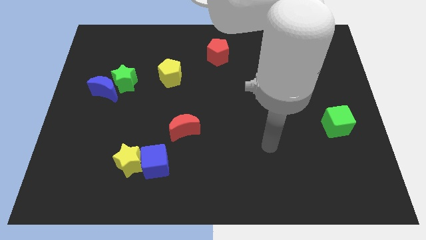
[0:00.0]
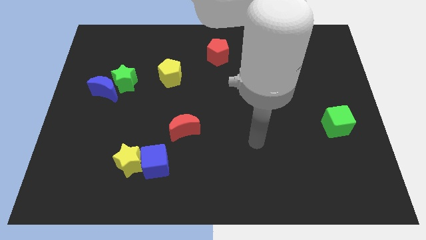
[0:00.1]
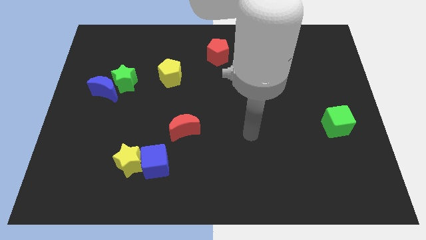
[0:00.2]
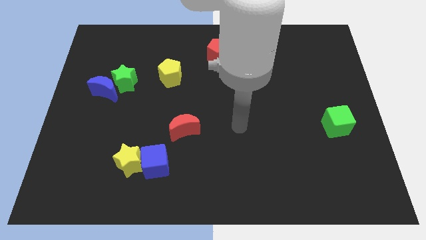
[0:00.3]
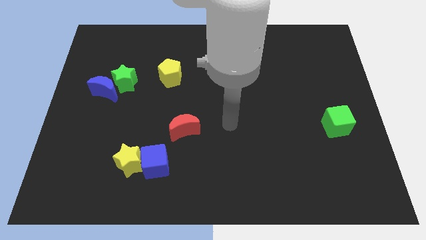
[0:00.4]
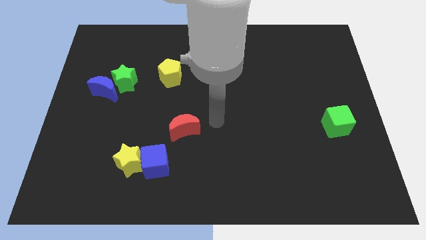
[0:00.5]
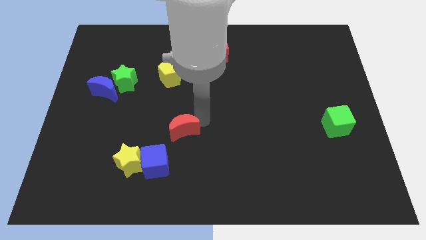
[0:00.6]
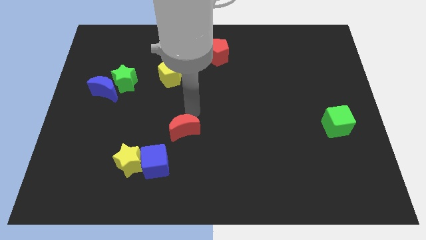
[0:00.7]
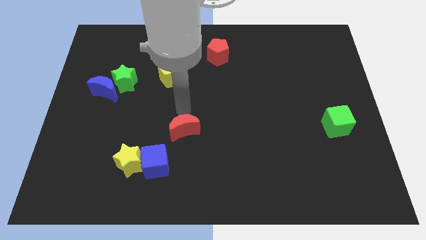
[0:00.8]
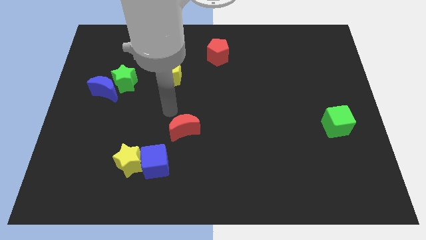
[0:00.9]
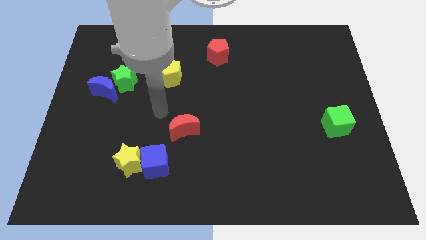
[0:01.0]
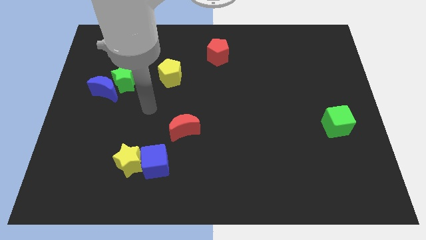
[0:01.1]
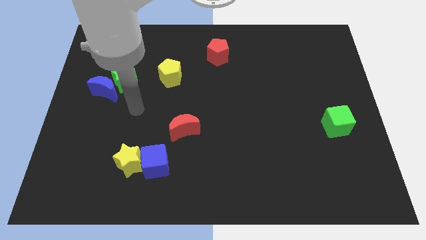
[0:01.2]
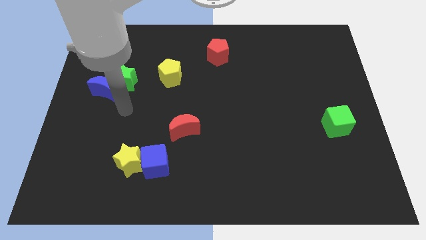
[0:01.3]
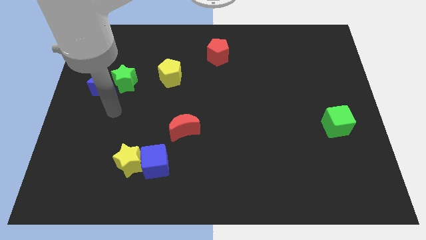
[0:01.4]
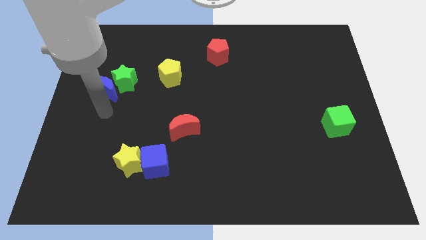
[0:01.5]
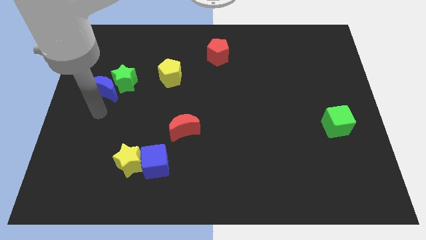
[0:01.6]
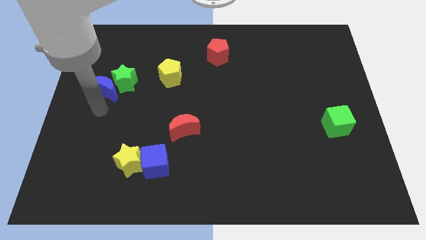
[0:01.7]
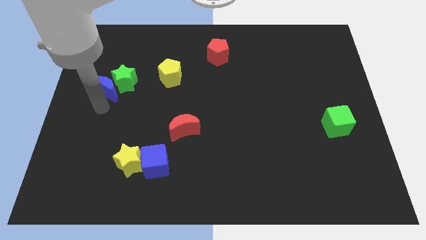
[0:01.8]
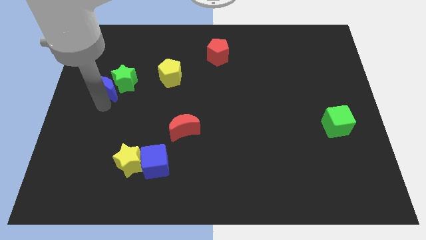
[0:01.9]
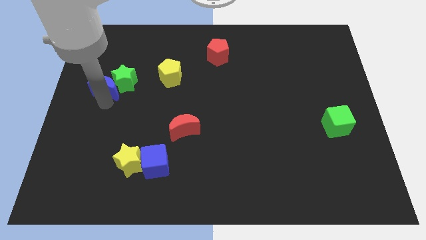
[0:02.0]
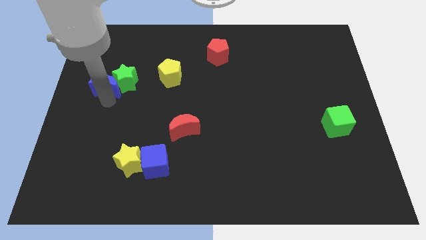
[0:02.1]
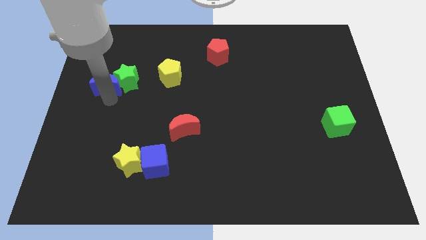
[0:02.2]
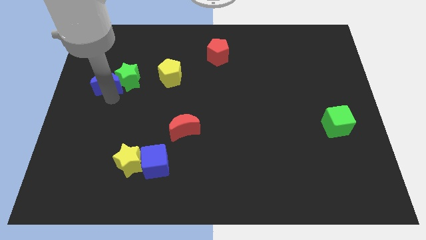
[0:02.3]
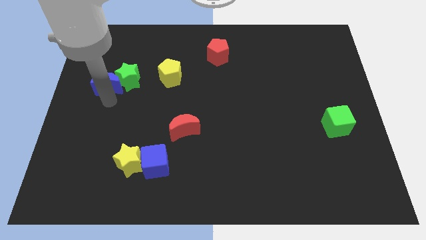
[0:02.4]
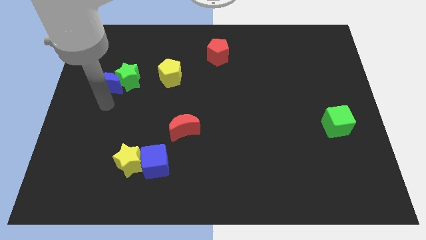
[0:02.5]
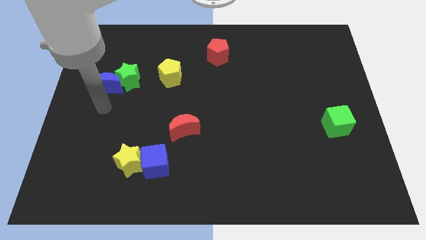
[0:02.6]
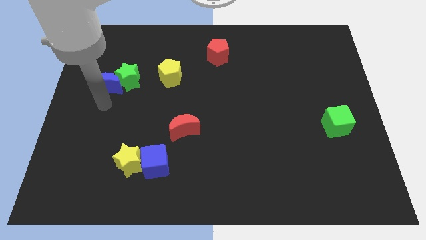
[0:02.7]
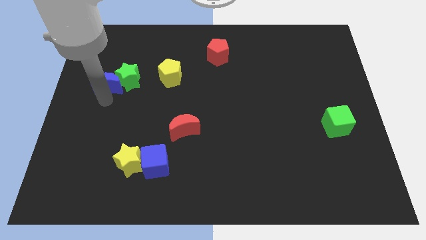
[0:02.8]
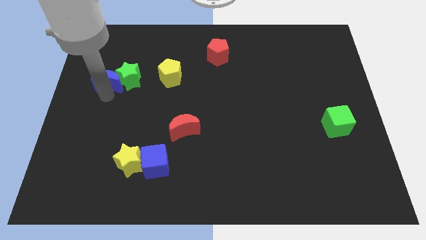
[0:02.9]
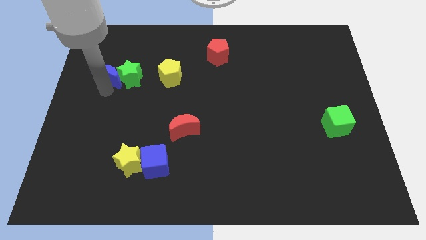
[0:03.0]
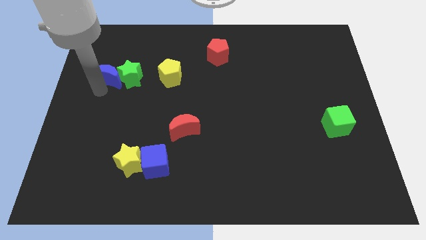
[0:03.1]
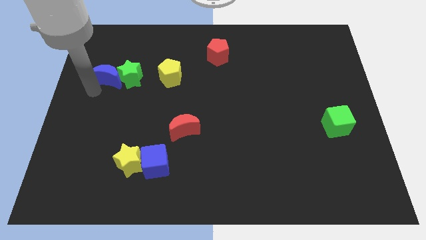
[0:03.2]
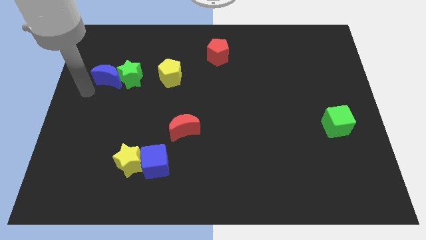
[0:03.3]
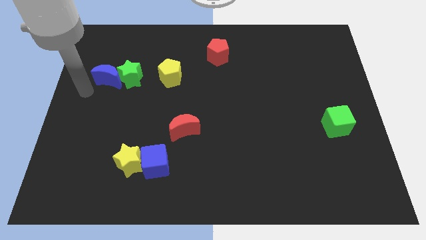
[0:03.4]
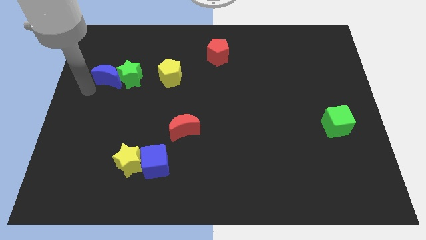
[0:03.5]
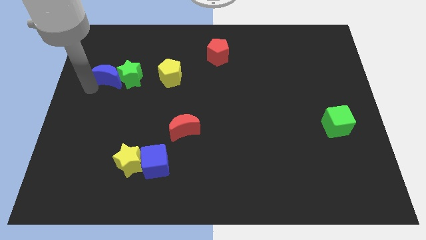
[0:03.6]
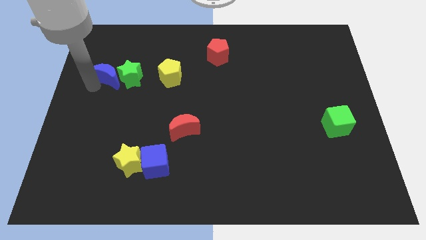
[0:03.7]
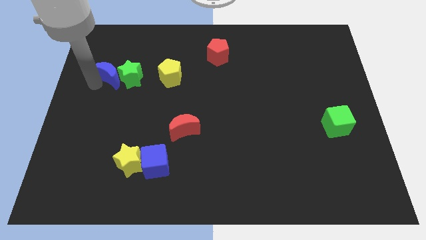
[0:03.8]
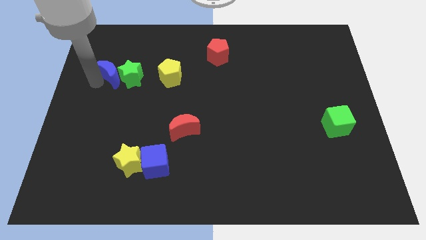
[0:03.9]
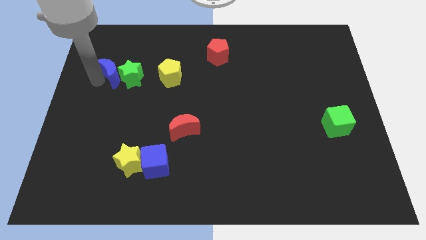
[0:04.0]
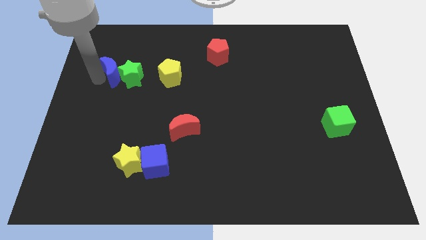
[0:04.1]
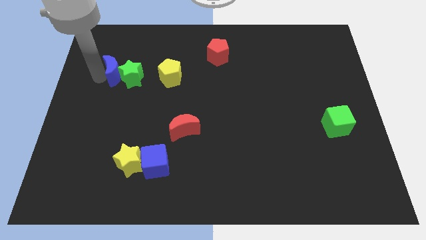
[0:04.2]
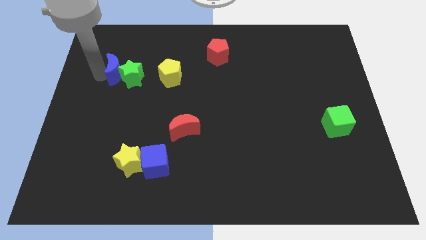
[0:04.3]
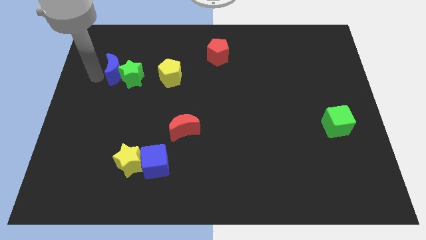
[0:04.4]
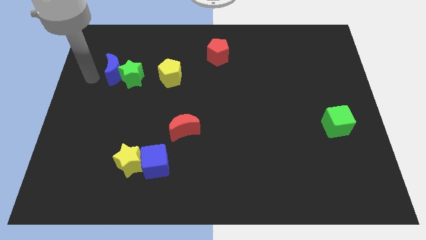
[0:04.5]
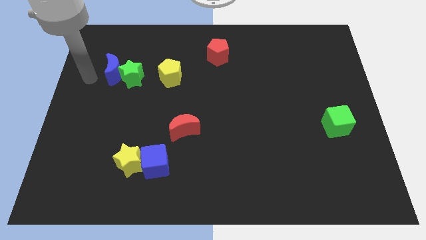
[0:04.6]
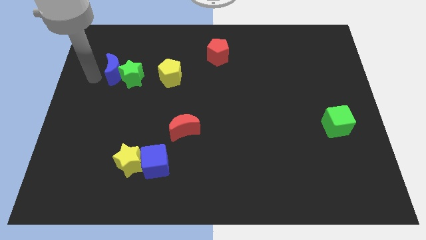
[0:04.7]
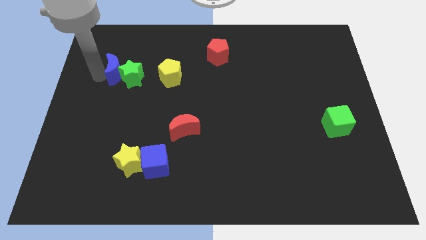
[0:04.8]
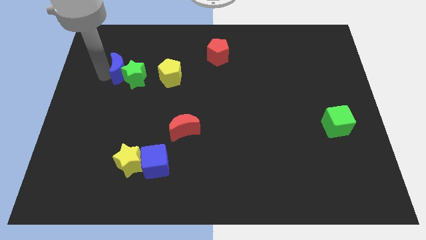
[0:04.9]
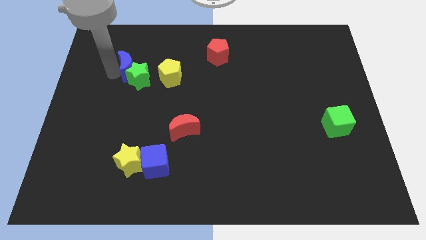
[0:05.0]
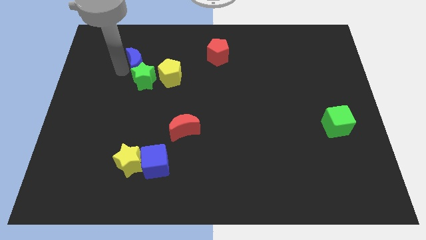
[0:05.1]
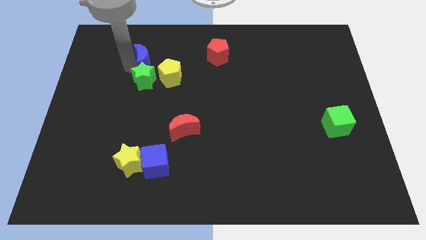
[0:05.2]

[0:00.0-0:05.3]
put the blue moon to the top right side of the green star
